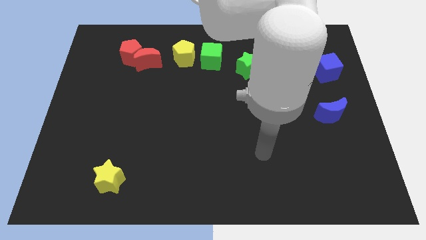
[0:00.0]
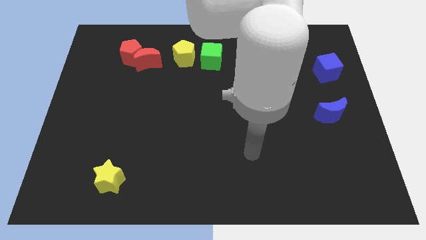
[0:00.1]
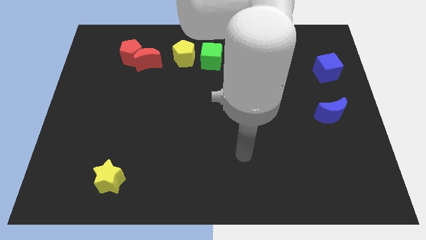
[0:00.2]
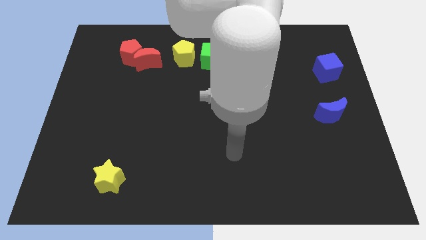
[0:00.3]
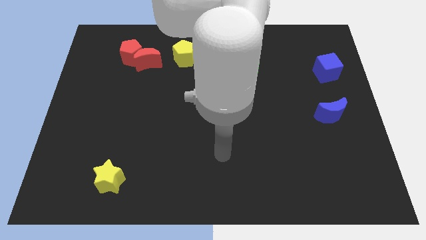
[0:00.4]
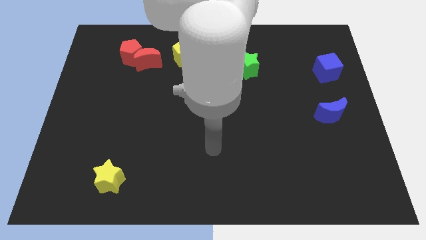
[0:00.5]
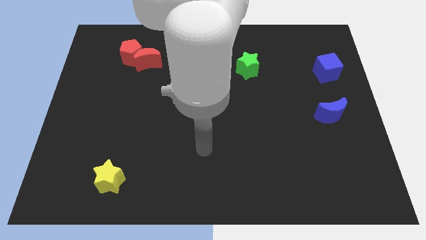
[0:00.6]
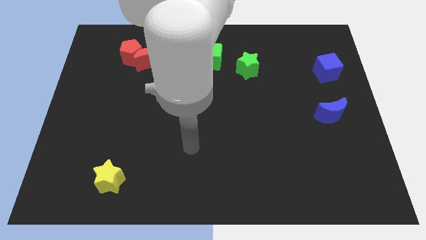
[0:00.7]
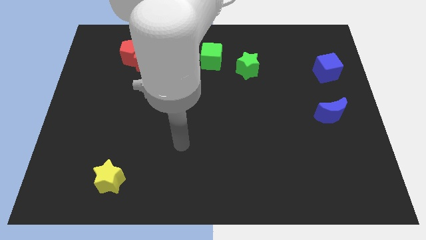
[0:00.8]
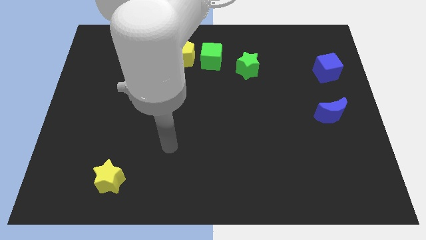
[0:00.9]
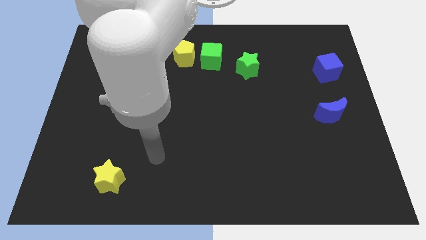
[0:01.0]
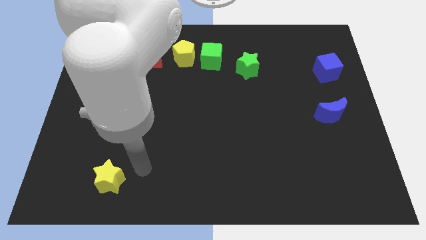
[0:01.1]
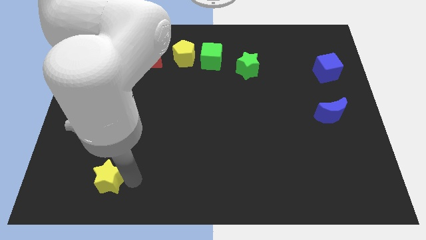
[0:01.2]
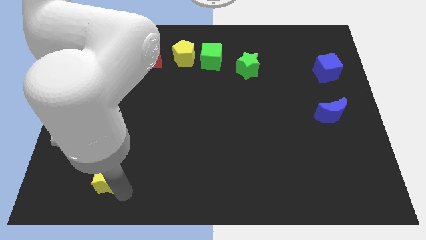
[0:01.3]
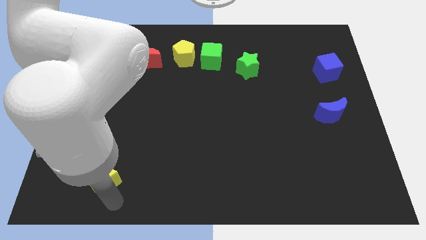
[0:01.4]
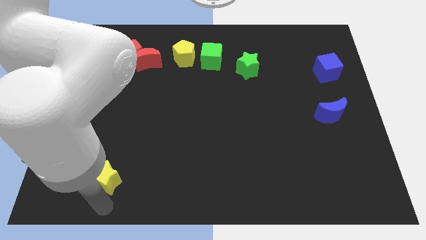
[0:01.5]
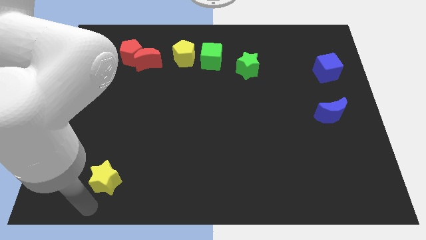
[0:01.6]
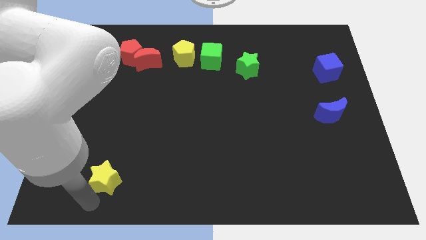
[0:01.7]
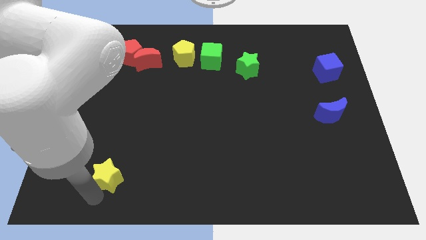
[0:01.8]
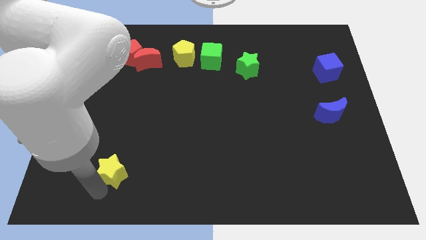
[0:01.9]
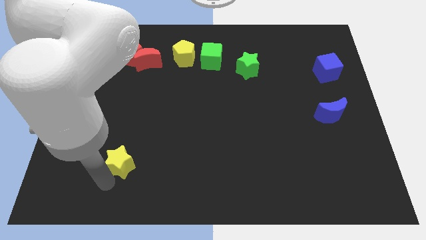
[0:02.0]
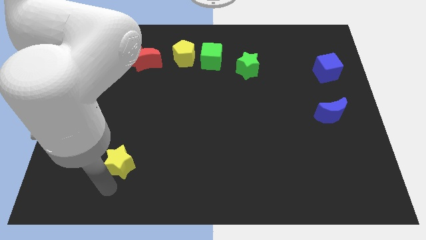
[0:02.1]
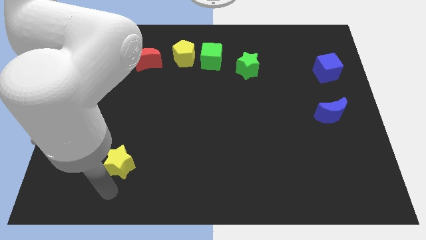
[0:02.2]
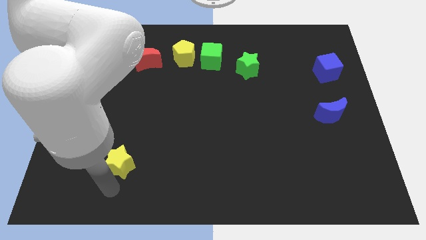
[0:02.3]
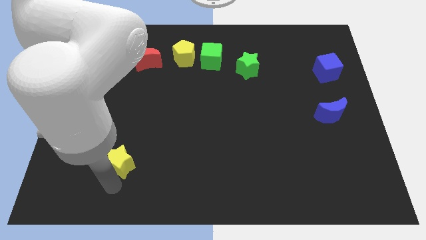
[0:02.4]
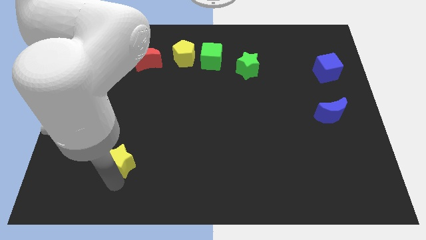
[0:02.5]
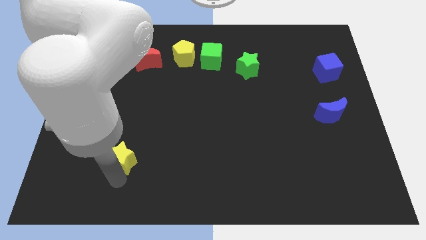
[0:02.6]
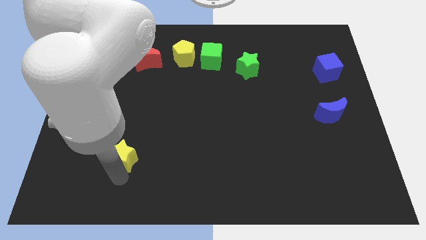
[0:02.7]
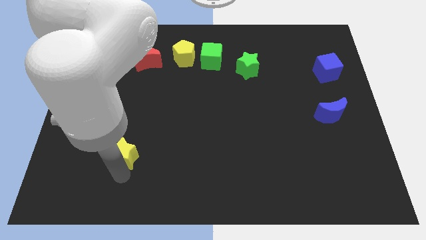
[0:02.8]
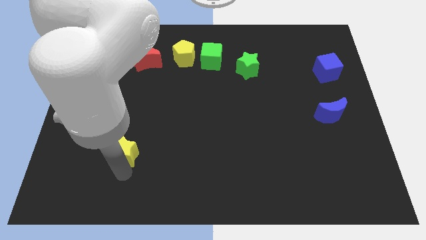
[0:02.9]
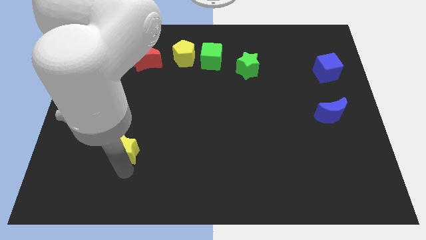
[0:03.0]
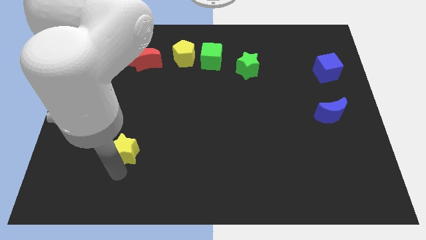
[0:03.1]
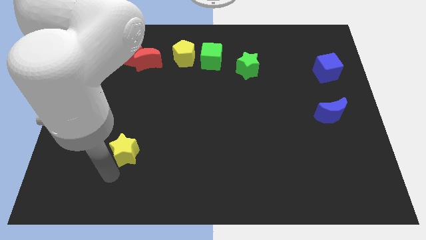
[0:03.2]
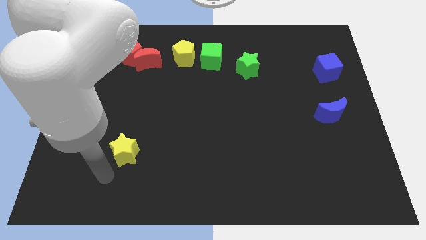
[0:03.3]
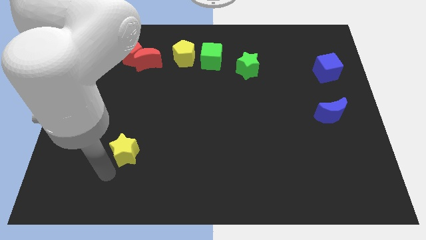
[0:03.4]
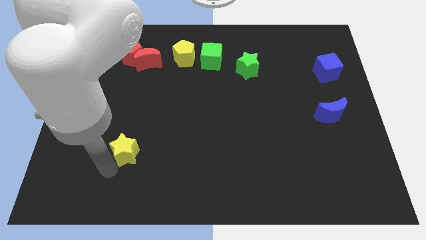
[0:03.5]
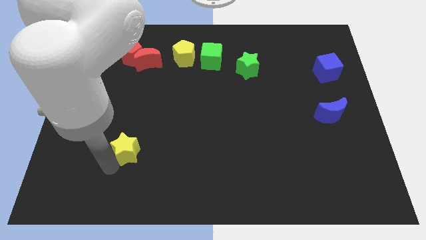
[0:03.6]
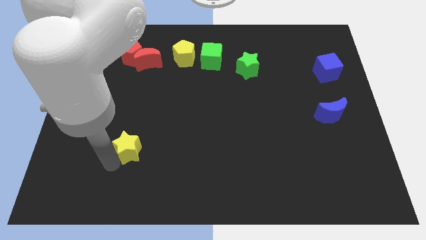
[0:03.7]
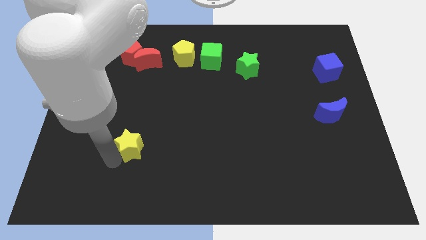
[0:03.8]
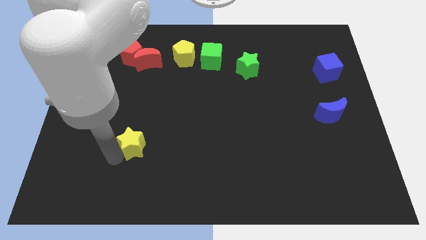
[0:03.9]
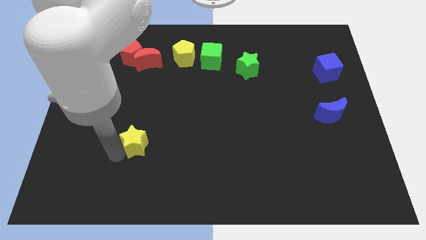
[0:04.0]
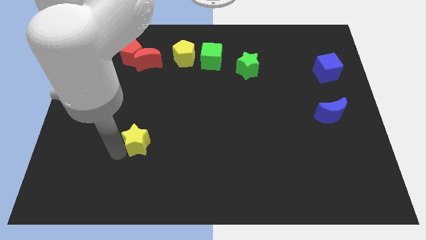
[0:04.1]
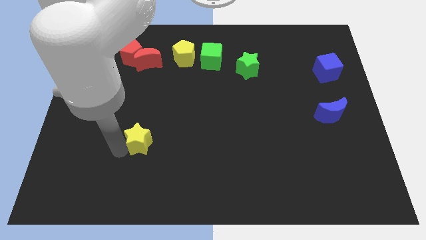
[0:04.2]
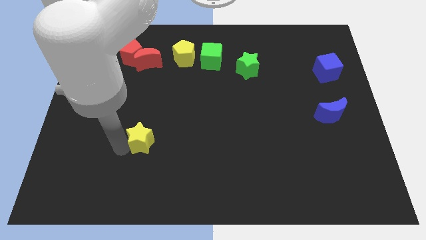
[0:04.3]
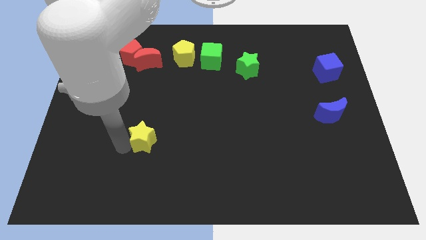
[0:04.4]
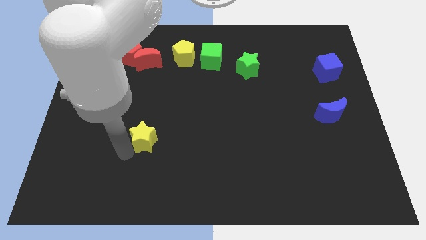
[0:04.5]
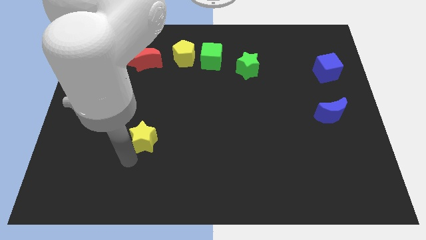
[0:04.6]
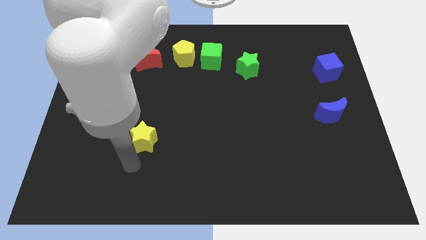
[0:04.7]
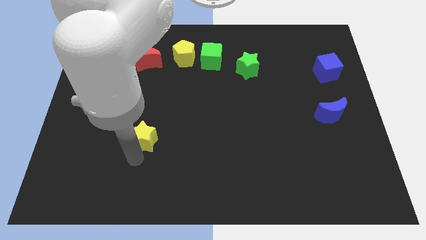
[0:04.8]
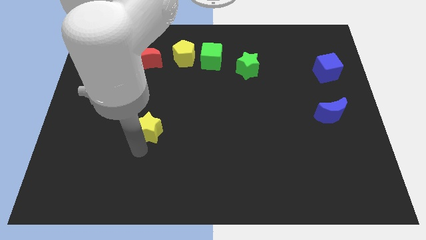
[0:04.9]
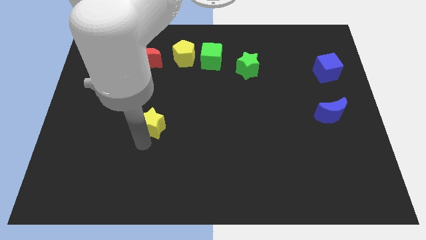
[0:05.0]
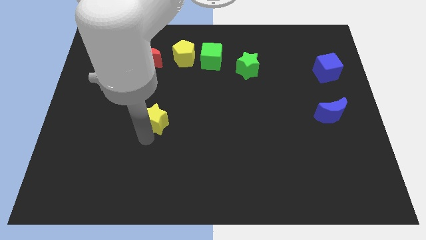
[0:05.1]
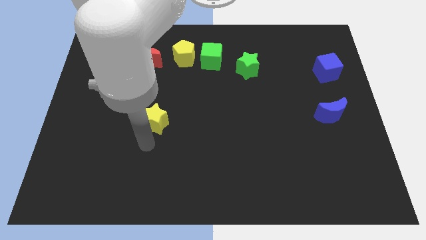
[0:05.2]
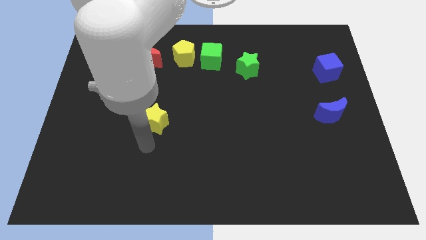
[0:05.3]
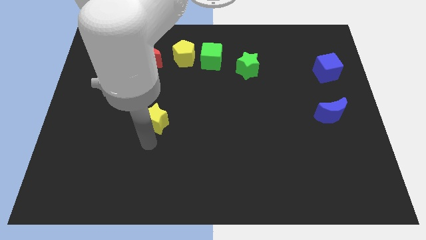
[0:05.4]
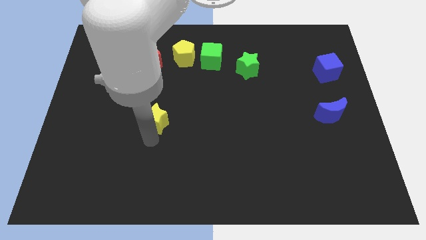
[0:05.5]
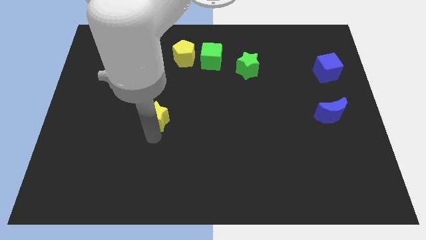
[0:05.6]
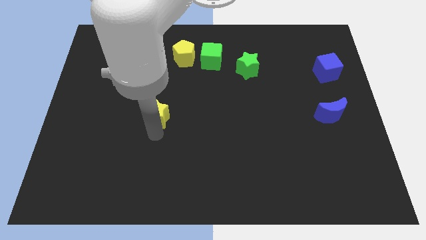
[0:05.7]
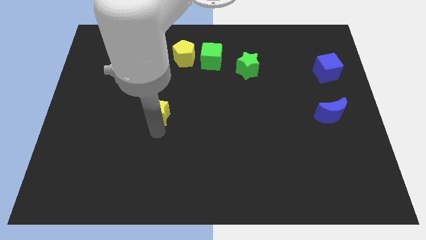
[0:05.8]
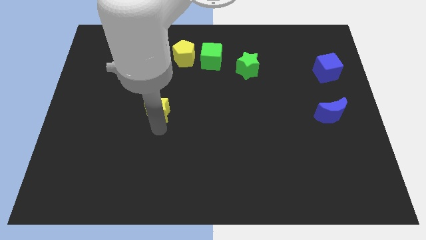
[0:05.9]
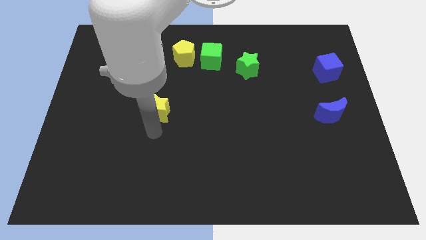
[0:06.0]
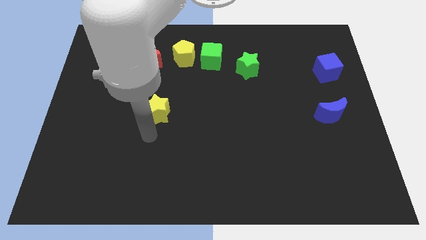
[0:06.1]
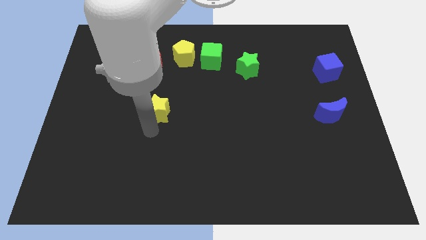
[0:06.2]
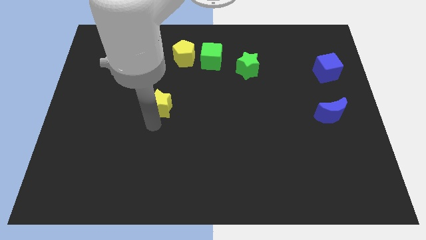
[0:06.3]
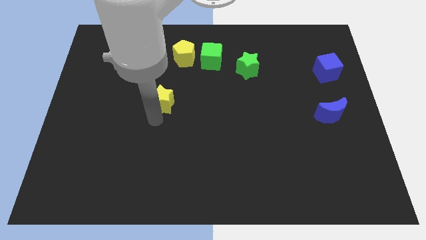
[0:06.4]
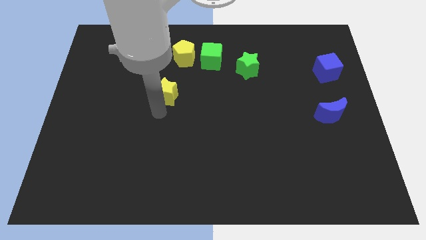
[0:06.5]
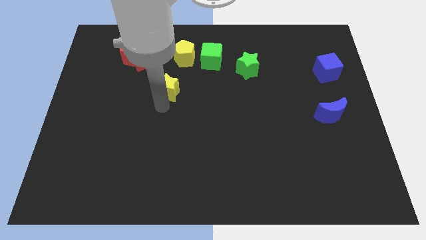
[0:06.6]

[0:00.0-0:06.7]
push the yellow star to the bottom right of the red moon
